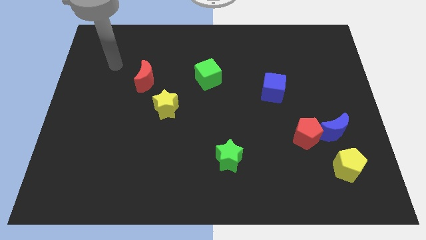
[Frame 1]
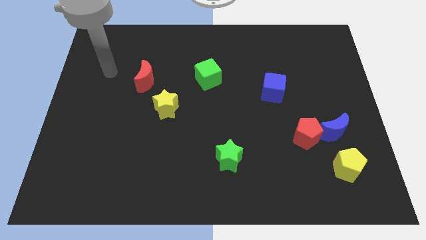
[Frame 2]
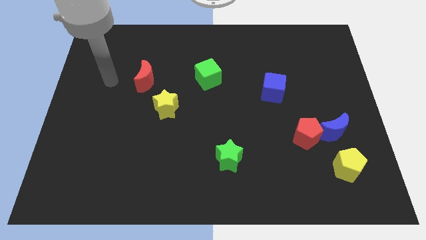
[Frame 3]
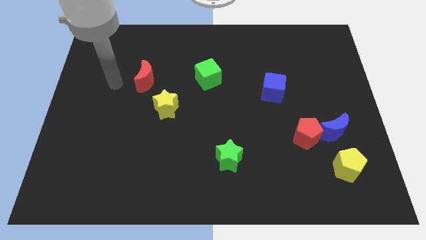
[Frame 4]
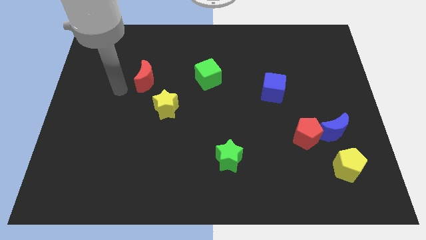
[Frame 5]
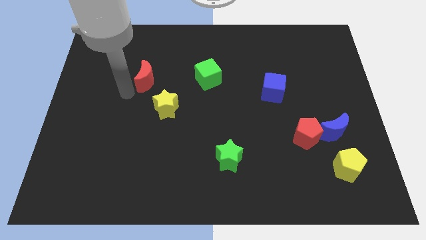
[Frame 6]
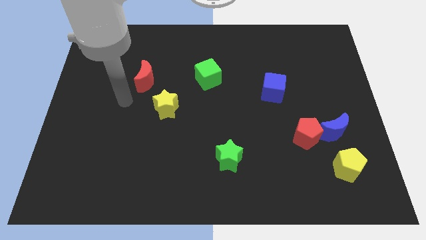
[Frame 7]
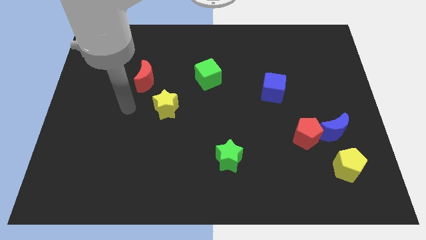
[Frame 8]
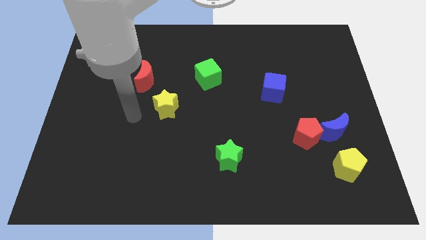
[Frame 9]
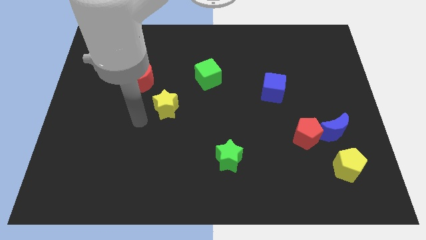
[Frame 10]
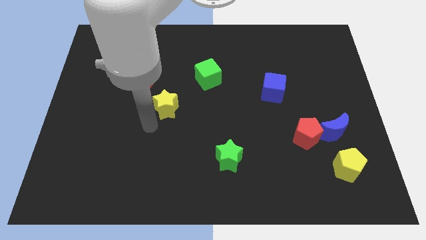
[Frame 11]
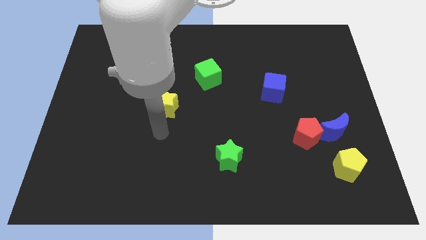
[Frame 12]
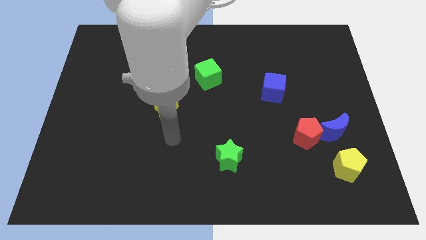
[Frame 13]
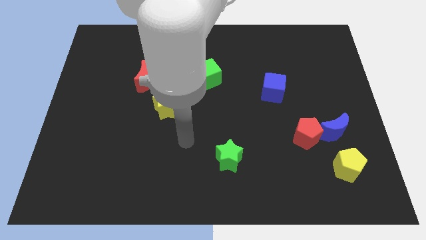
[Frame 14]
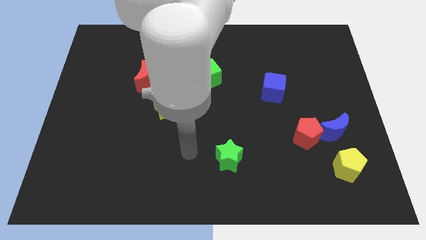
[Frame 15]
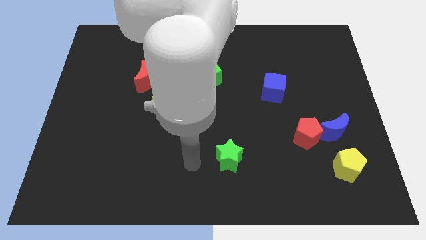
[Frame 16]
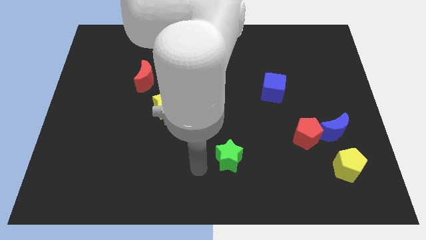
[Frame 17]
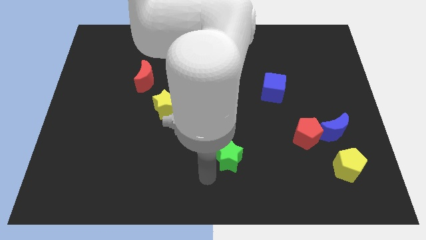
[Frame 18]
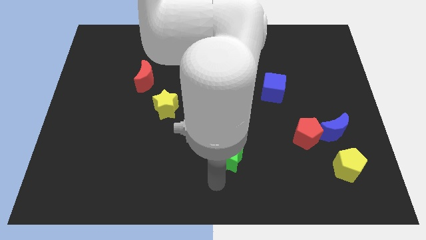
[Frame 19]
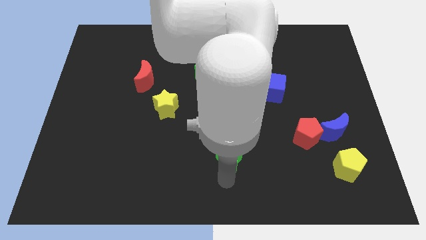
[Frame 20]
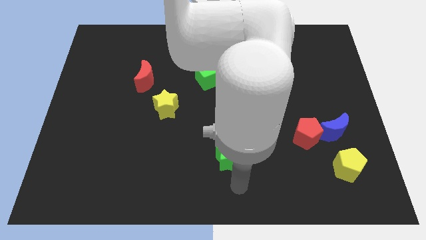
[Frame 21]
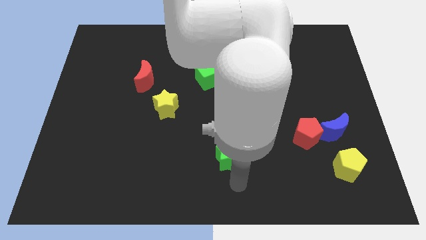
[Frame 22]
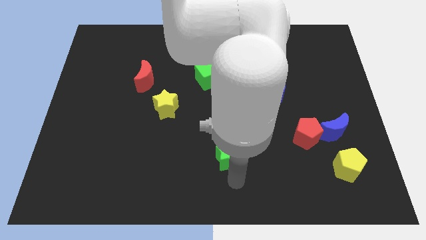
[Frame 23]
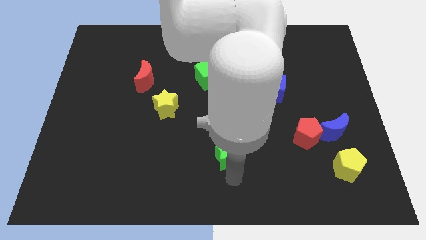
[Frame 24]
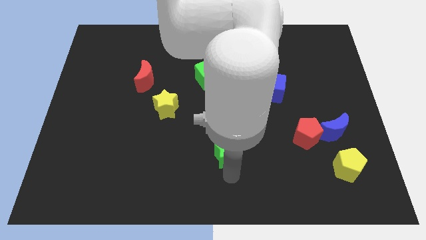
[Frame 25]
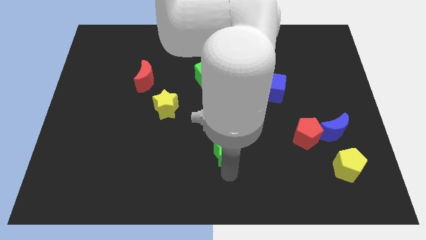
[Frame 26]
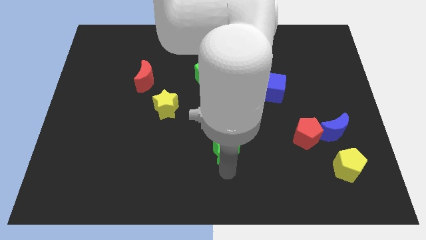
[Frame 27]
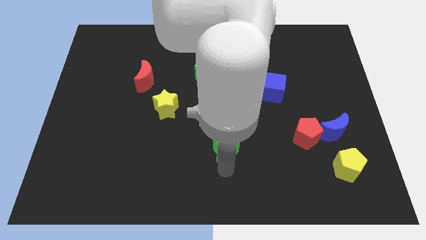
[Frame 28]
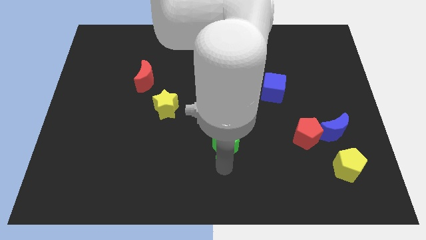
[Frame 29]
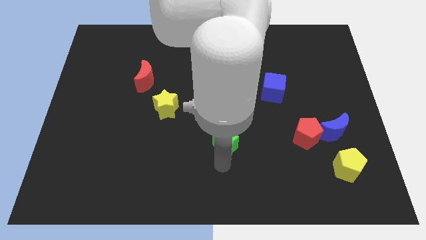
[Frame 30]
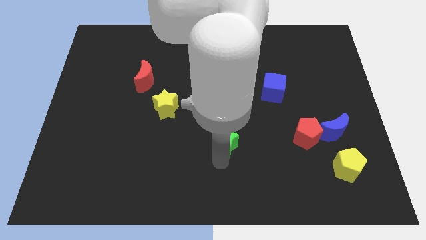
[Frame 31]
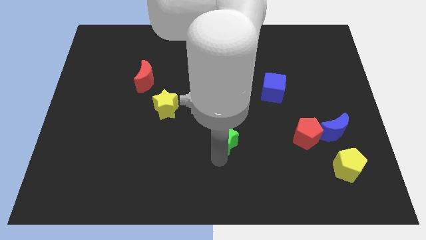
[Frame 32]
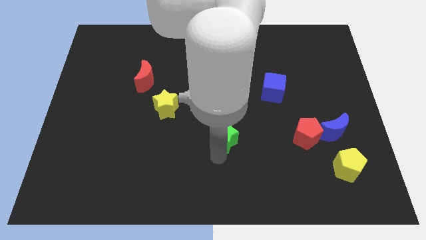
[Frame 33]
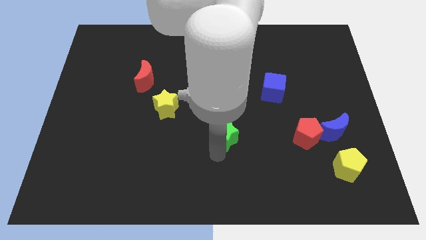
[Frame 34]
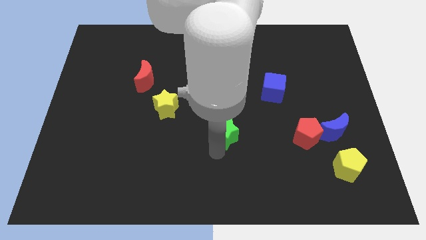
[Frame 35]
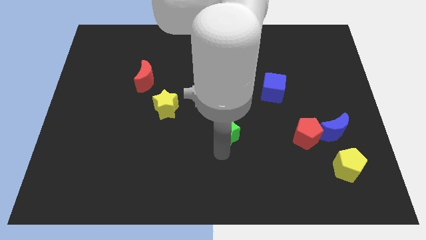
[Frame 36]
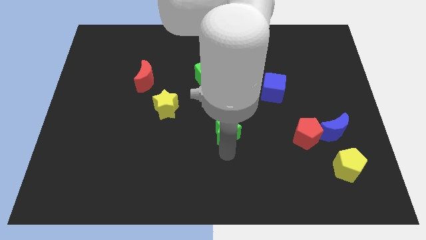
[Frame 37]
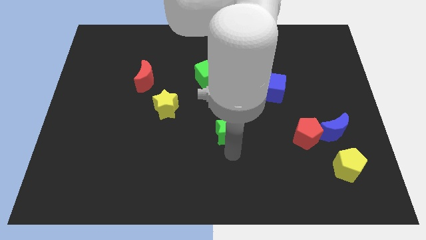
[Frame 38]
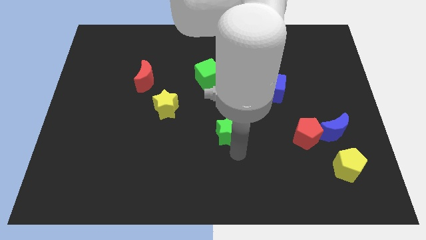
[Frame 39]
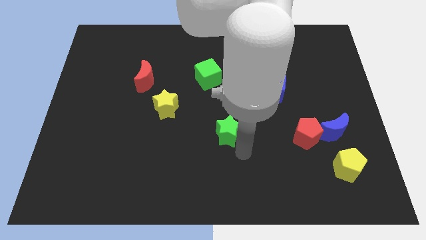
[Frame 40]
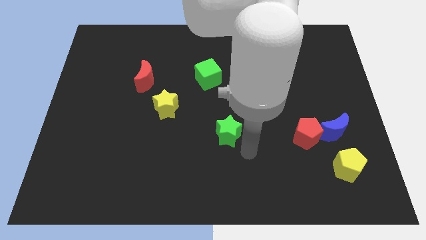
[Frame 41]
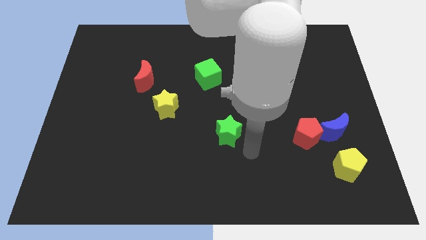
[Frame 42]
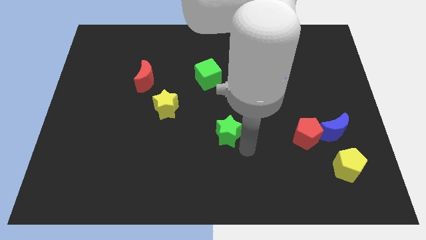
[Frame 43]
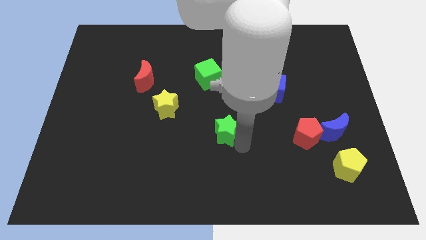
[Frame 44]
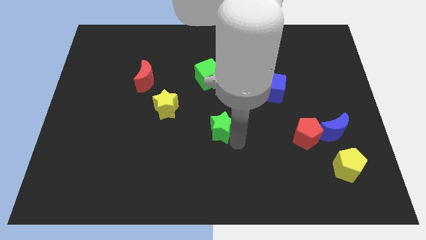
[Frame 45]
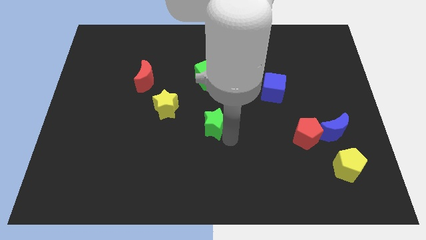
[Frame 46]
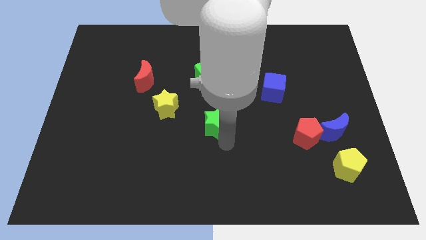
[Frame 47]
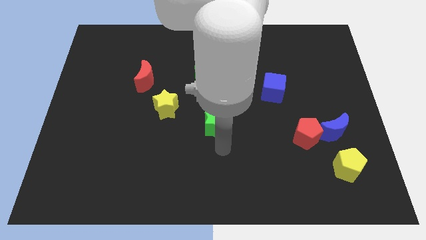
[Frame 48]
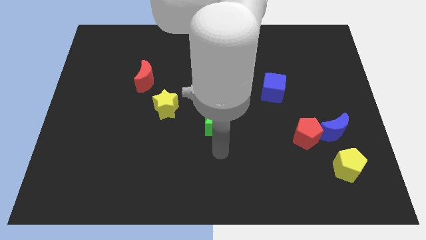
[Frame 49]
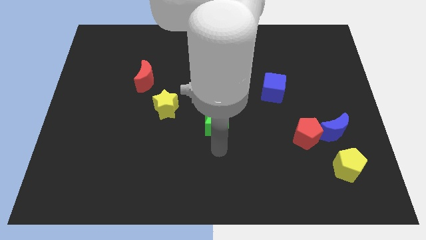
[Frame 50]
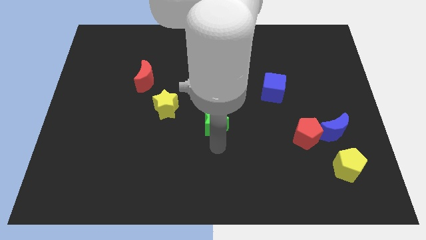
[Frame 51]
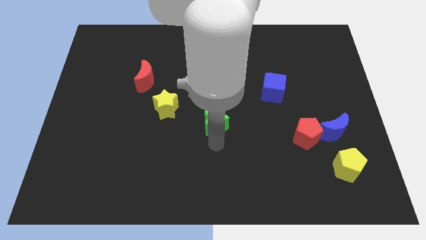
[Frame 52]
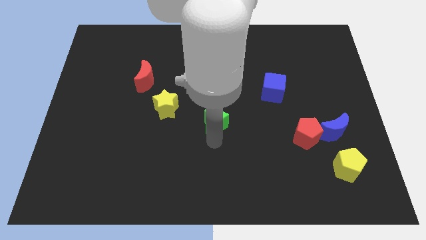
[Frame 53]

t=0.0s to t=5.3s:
move the green star to the right side of the yellow star

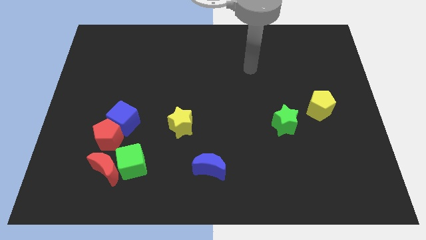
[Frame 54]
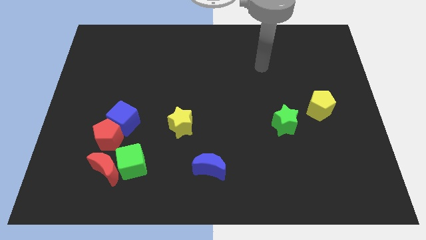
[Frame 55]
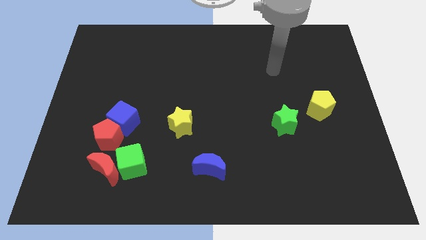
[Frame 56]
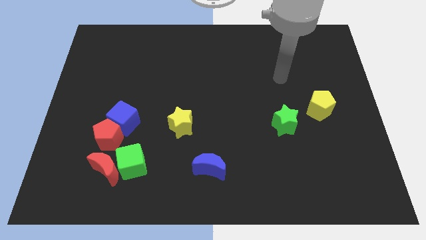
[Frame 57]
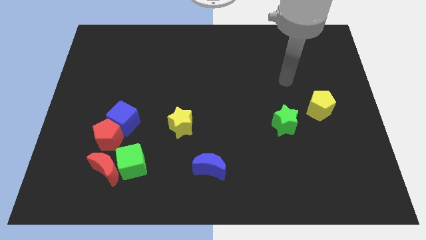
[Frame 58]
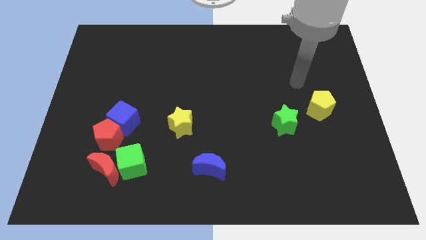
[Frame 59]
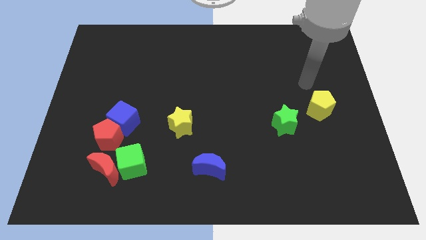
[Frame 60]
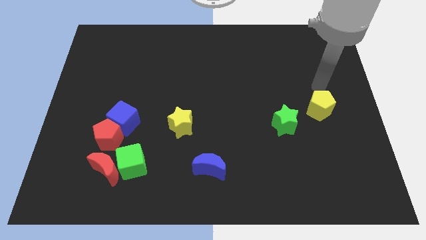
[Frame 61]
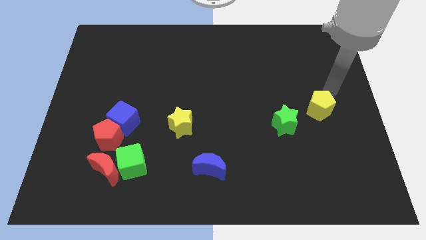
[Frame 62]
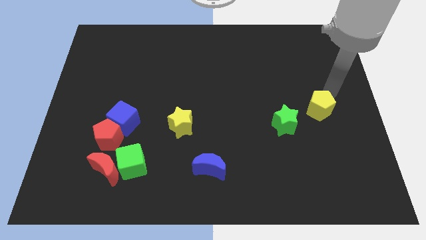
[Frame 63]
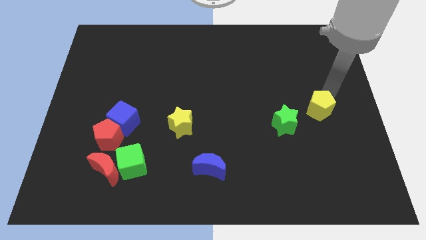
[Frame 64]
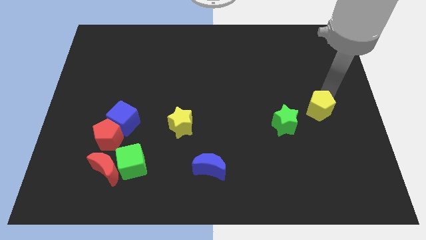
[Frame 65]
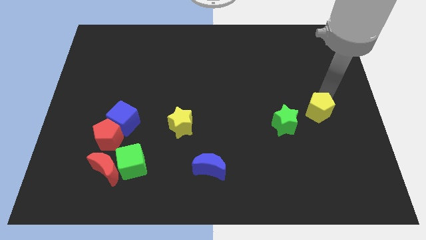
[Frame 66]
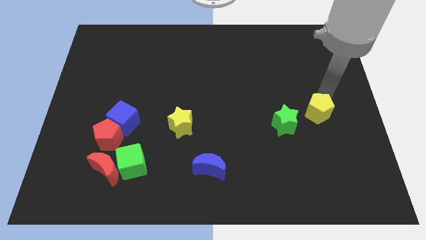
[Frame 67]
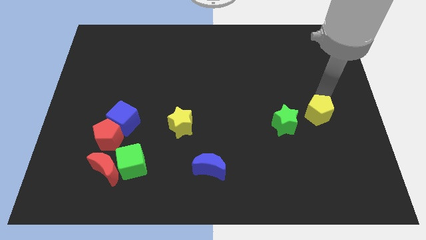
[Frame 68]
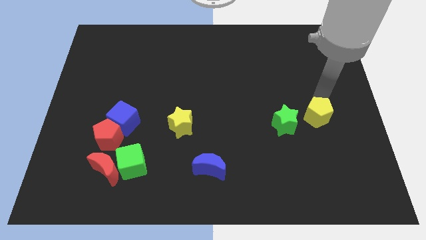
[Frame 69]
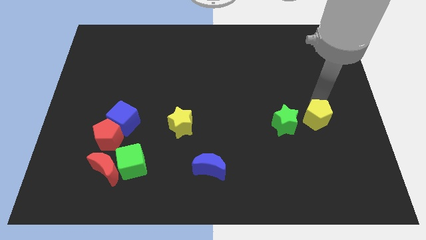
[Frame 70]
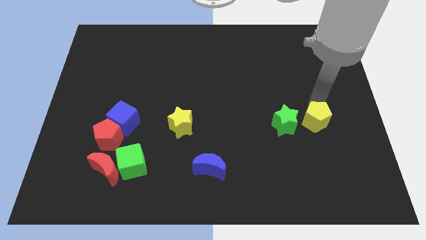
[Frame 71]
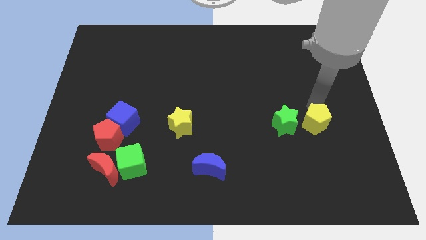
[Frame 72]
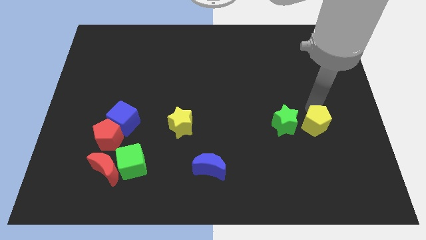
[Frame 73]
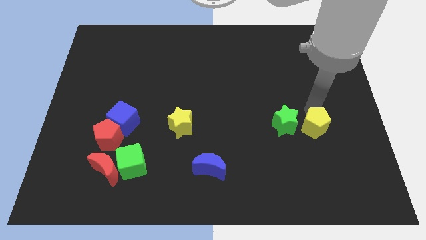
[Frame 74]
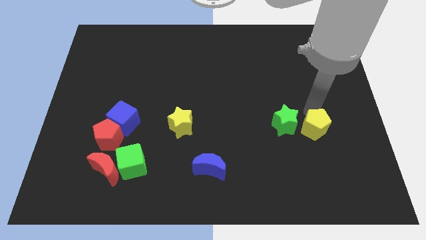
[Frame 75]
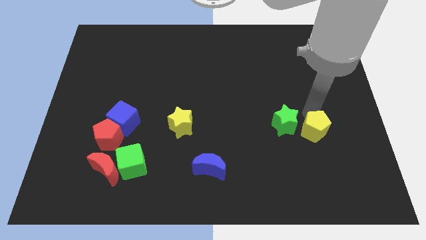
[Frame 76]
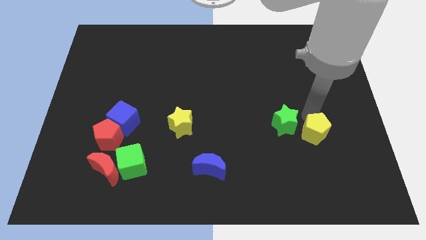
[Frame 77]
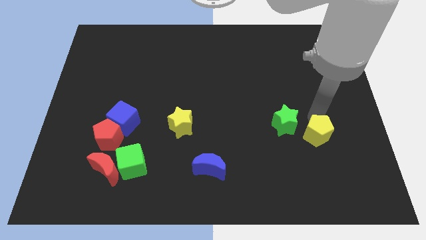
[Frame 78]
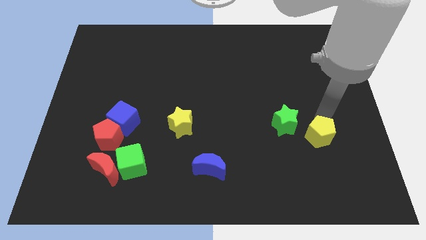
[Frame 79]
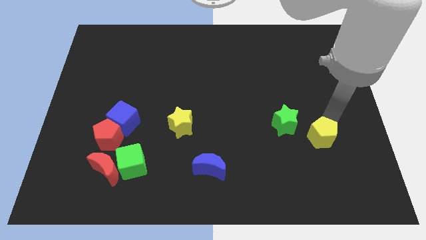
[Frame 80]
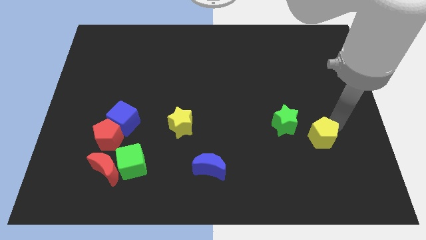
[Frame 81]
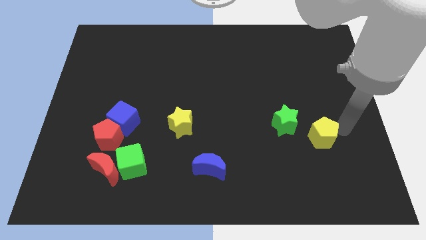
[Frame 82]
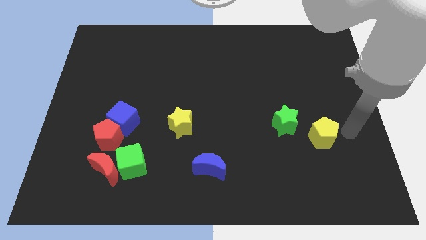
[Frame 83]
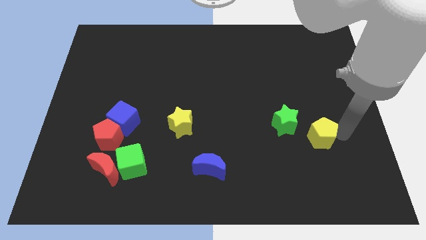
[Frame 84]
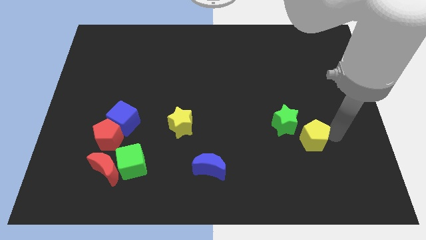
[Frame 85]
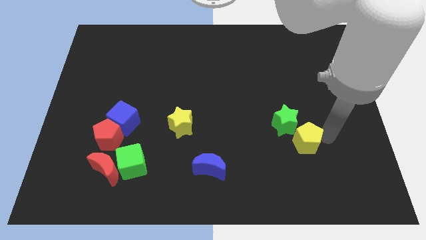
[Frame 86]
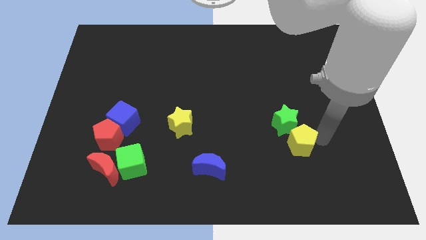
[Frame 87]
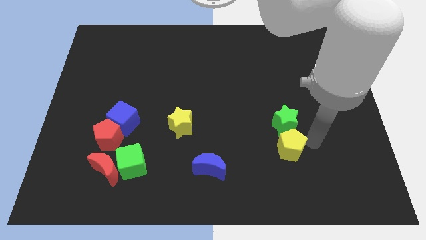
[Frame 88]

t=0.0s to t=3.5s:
push the yellow pentagon diagonally down and to the left of the green star

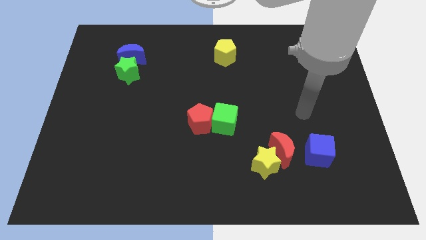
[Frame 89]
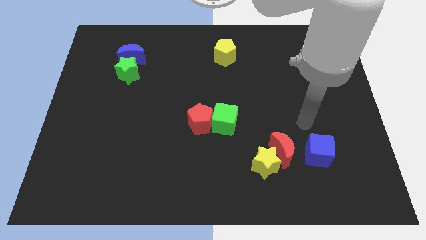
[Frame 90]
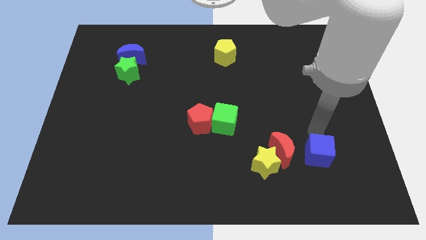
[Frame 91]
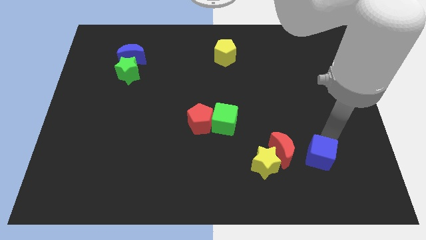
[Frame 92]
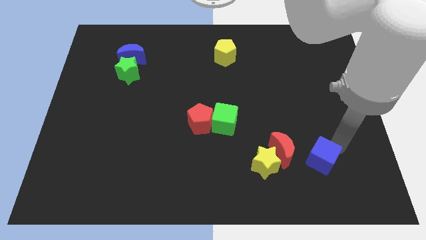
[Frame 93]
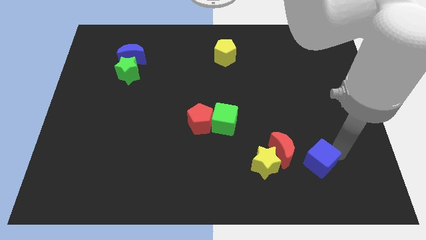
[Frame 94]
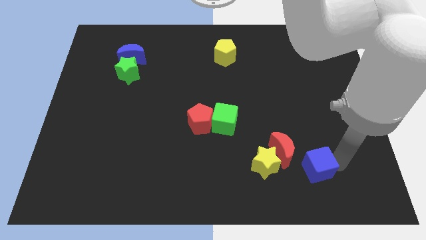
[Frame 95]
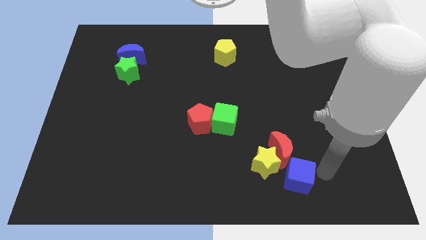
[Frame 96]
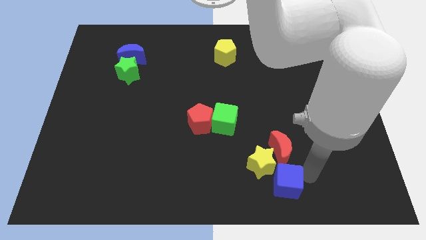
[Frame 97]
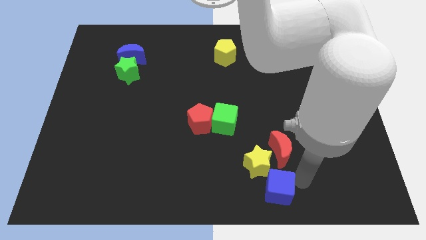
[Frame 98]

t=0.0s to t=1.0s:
push the yellow star to the bottom right of the green cube
